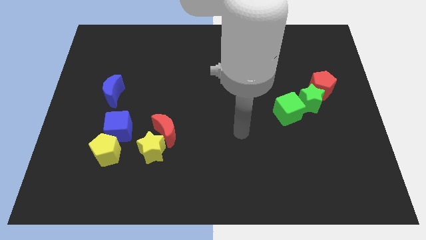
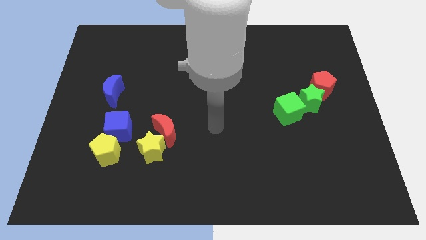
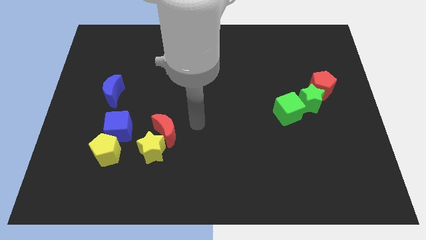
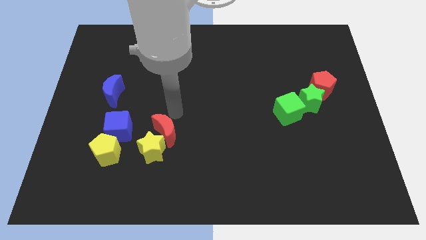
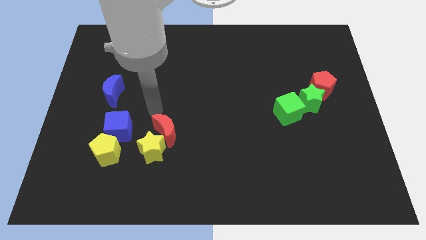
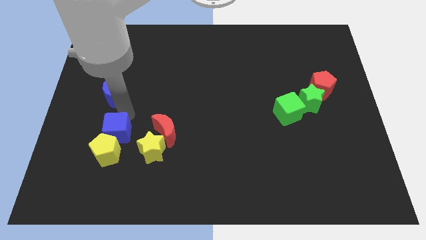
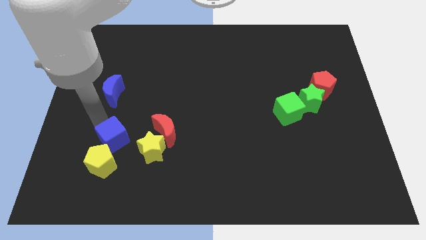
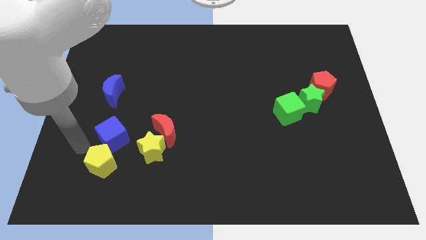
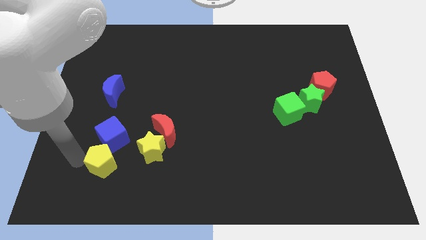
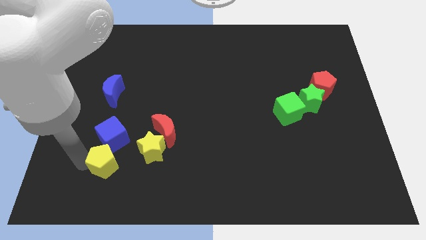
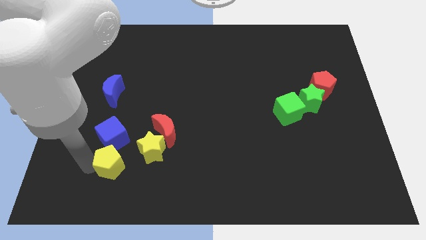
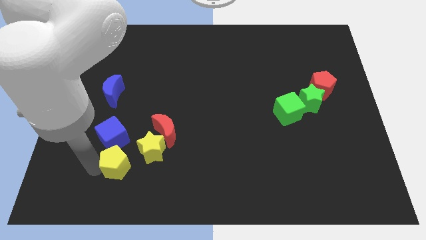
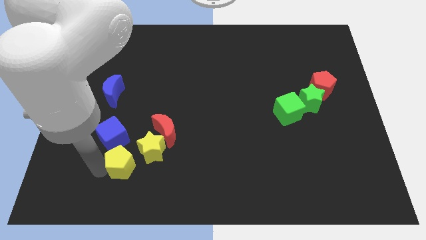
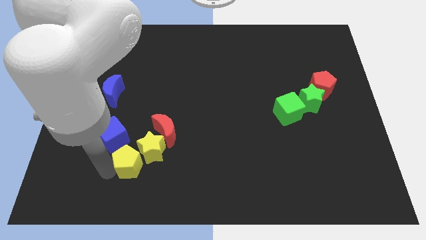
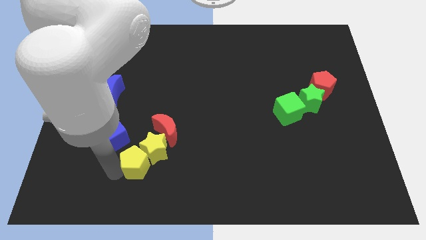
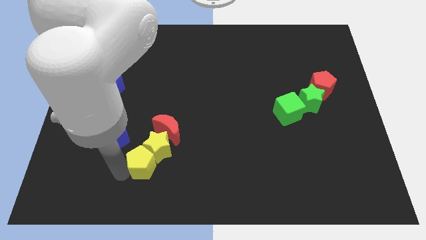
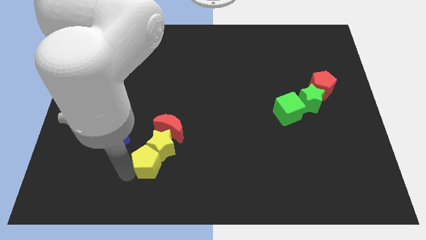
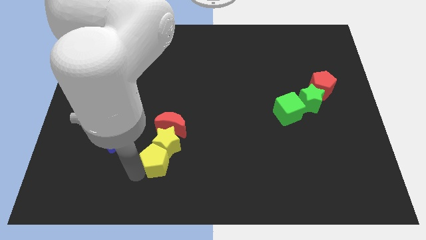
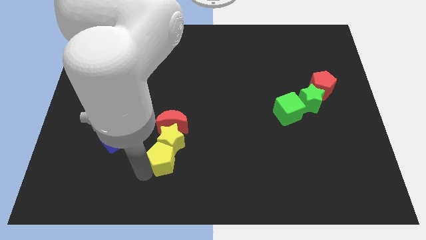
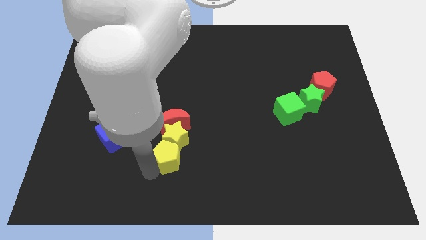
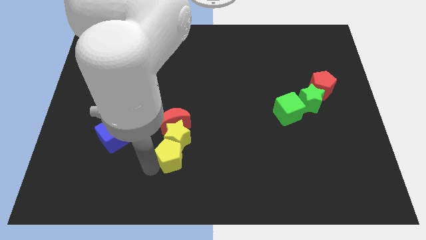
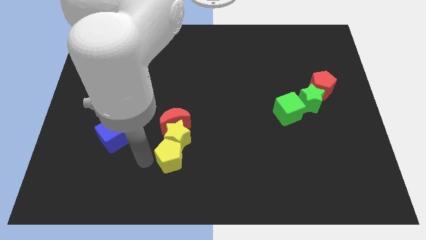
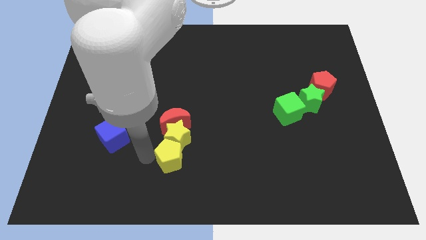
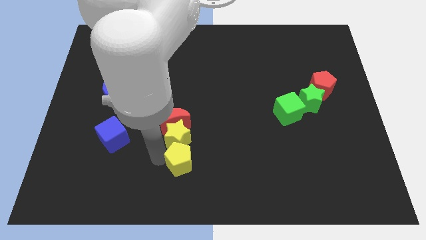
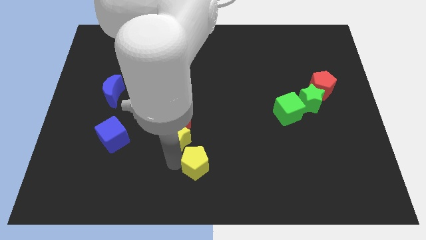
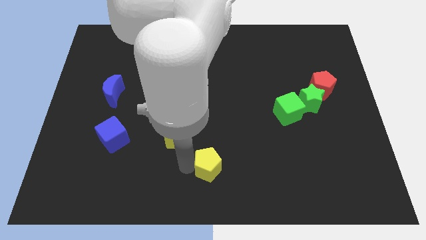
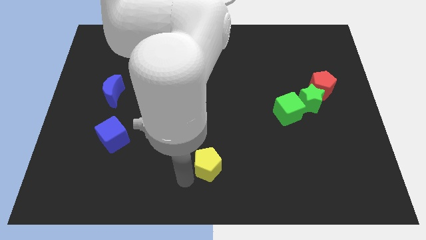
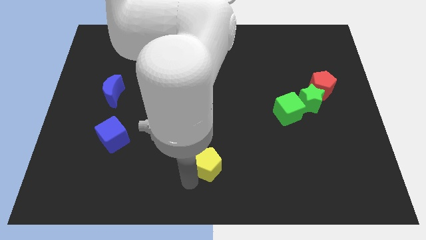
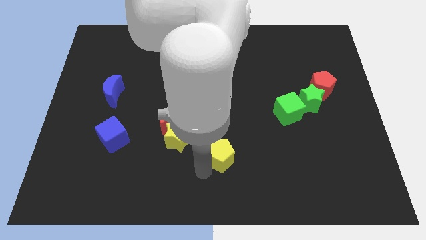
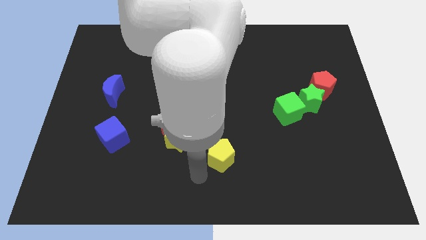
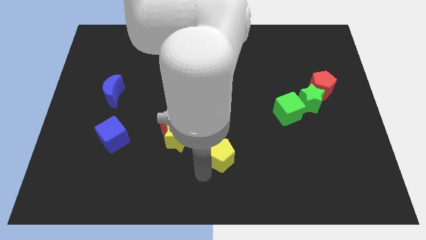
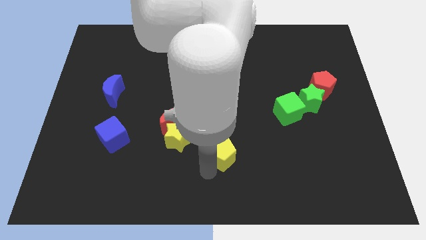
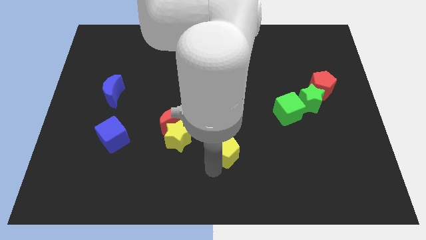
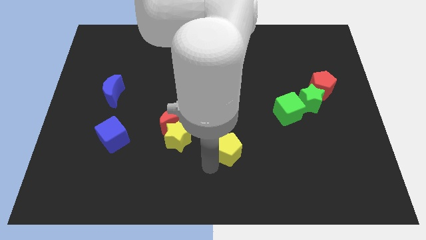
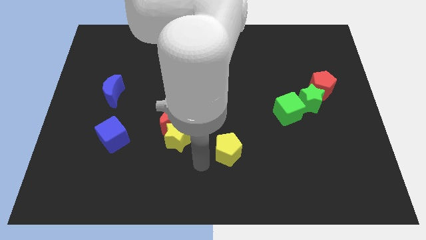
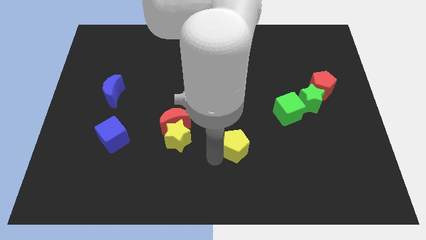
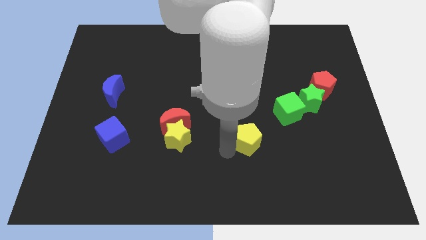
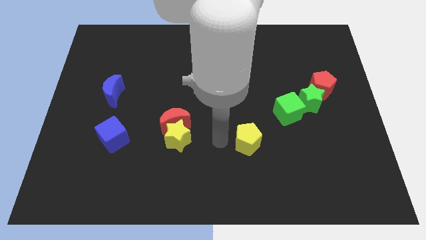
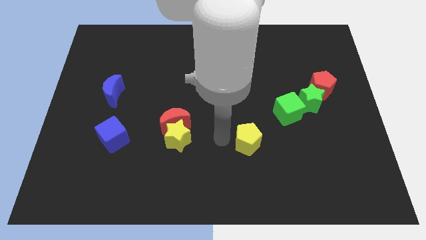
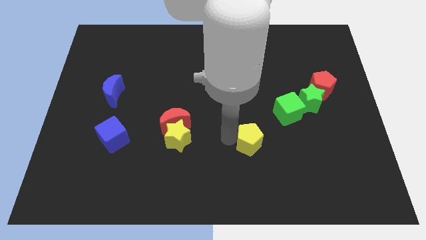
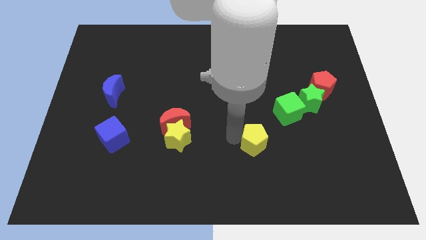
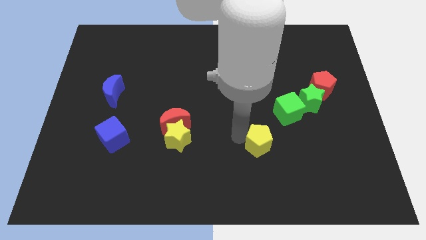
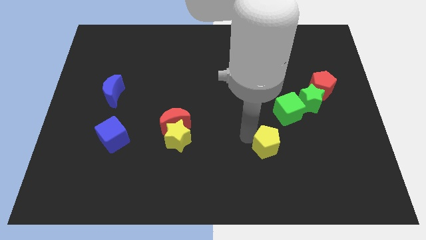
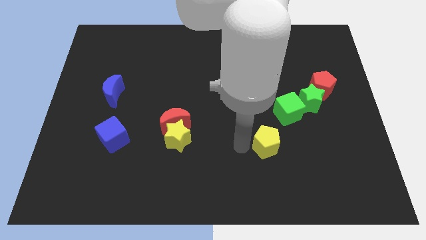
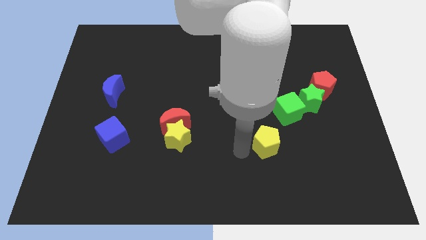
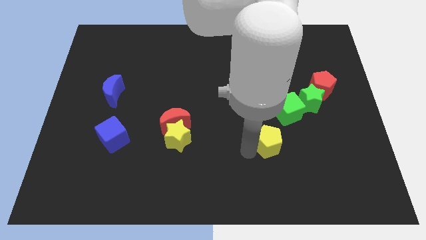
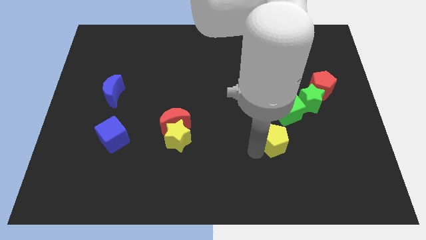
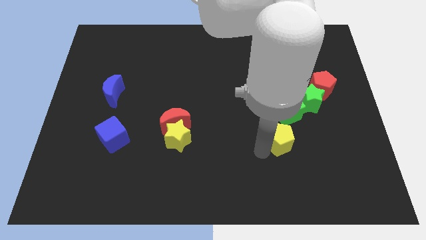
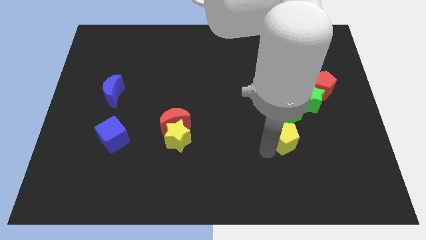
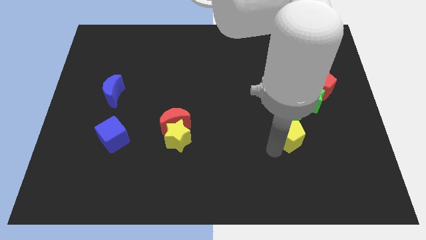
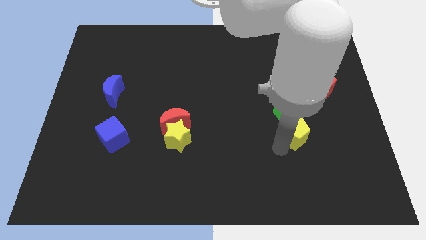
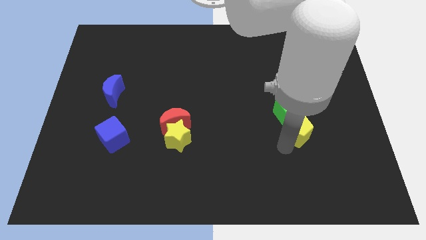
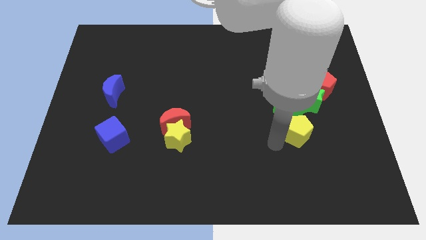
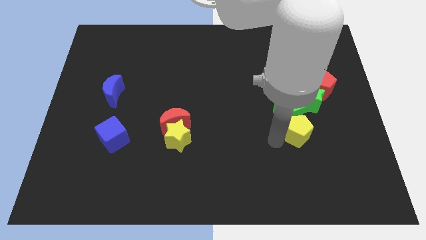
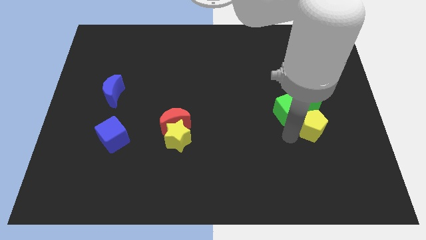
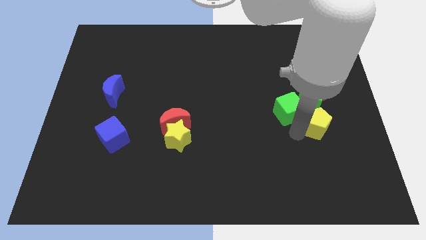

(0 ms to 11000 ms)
slide the yellow pentagon diagonally down and to the right of the green star
